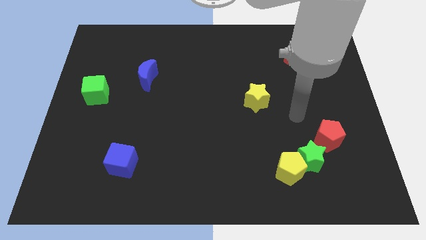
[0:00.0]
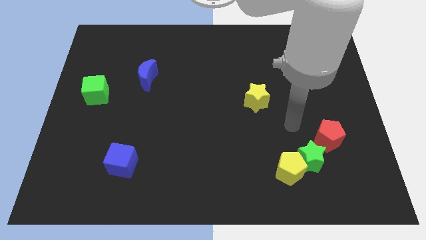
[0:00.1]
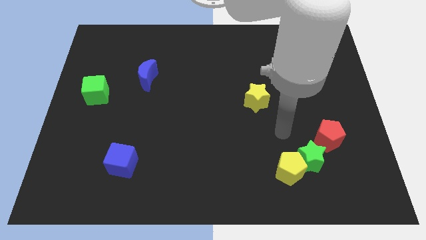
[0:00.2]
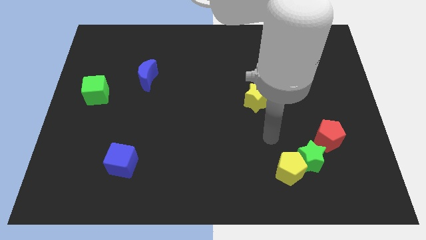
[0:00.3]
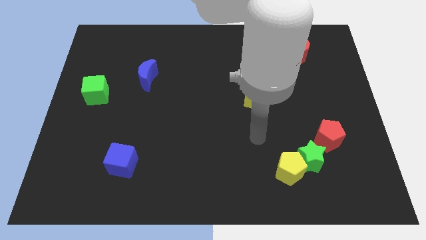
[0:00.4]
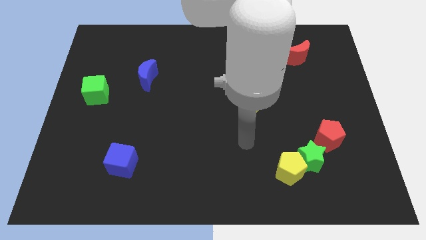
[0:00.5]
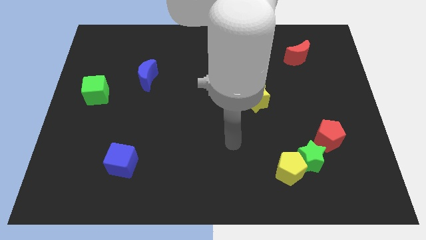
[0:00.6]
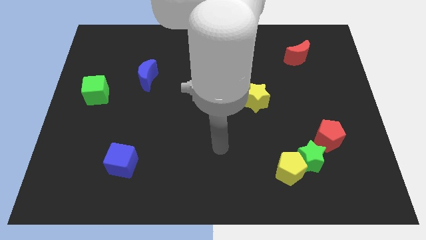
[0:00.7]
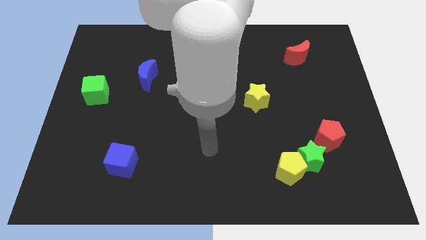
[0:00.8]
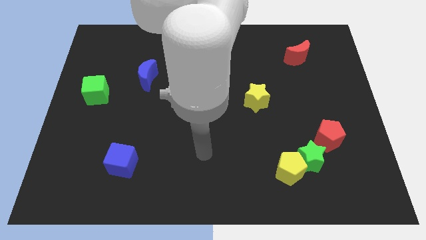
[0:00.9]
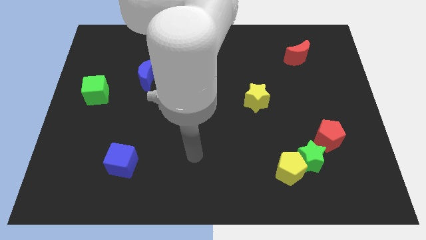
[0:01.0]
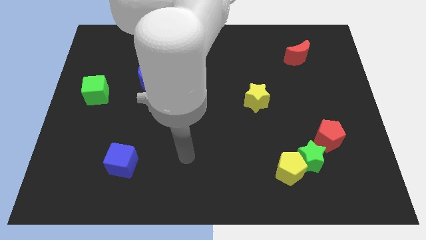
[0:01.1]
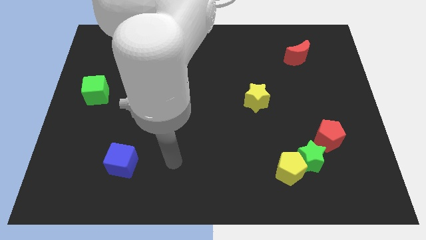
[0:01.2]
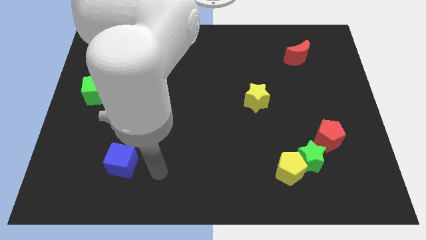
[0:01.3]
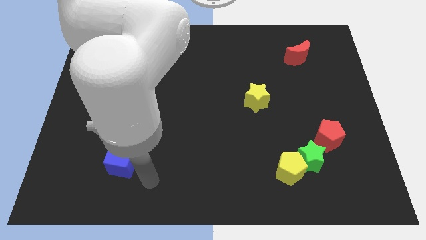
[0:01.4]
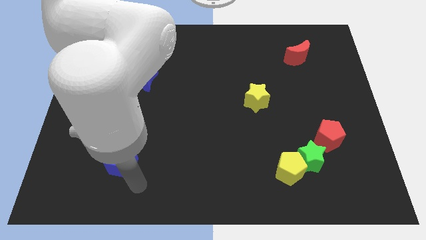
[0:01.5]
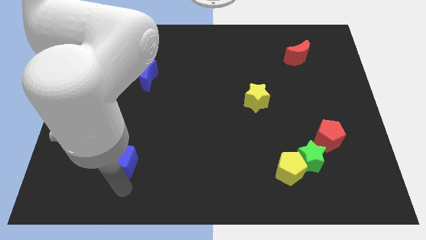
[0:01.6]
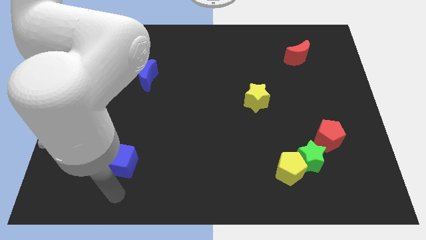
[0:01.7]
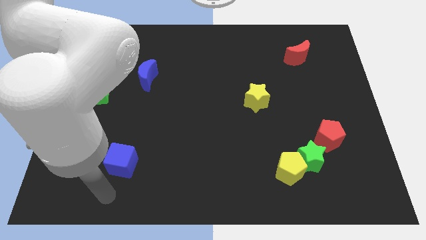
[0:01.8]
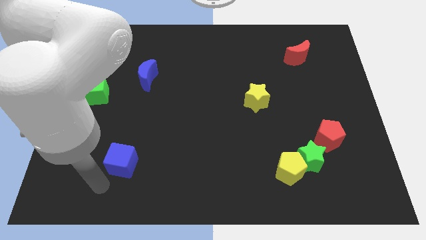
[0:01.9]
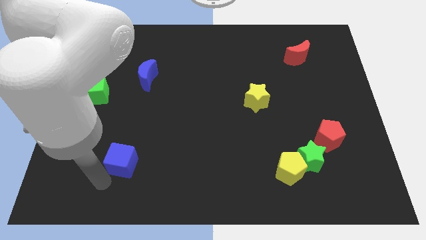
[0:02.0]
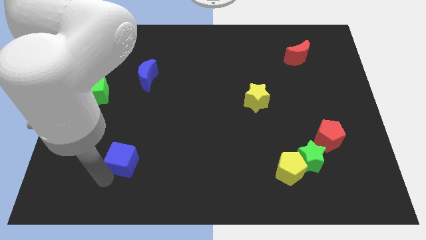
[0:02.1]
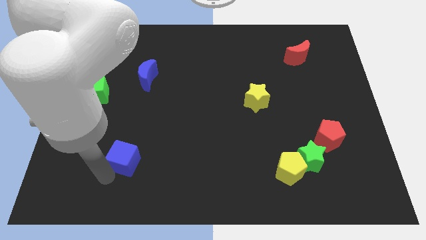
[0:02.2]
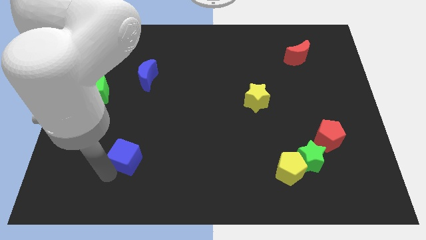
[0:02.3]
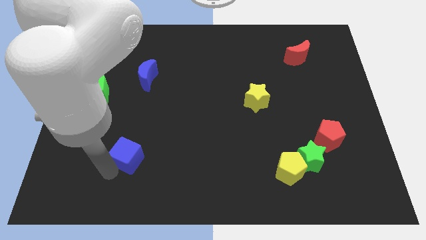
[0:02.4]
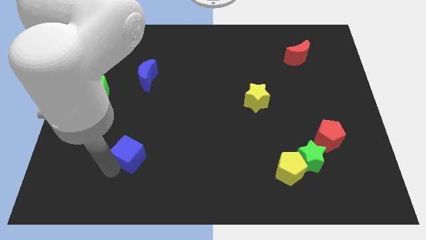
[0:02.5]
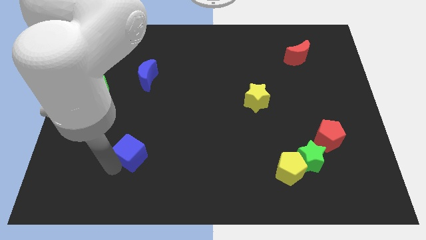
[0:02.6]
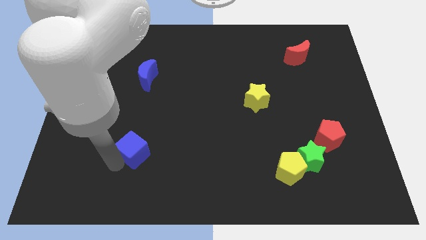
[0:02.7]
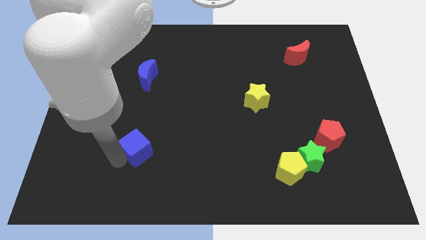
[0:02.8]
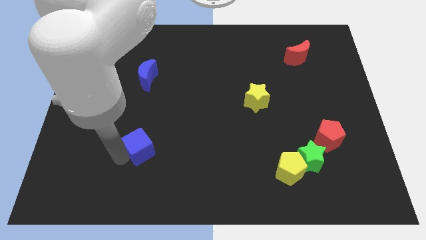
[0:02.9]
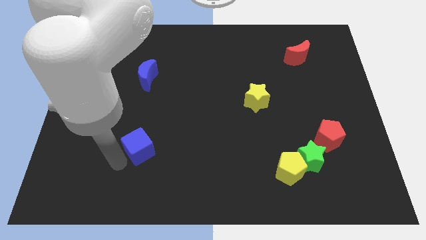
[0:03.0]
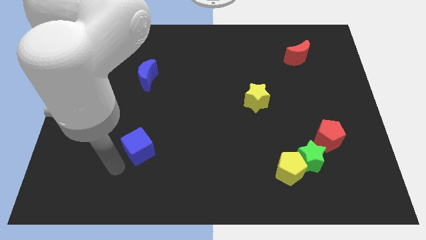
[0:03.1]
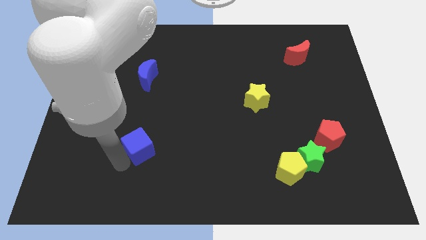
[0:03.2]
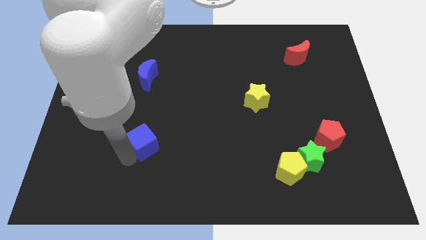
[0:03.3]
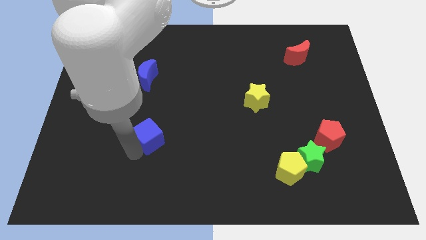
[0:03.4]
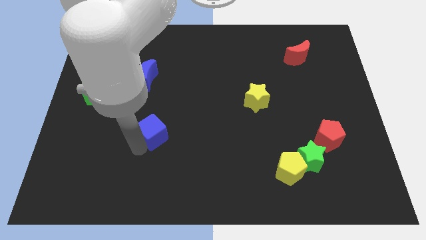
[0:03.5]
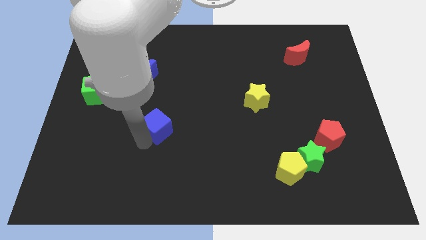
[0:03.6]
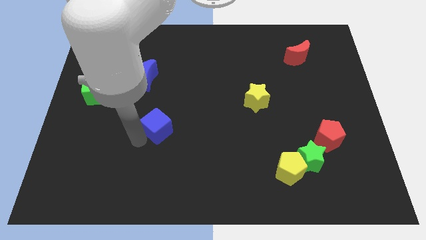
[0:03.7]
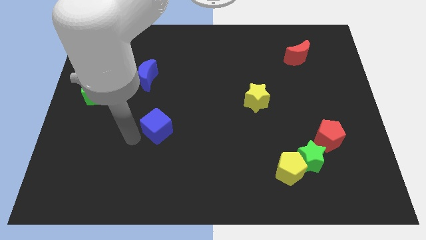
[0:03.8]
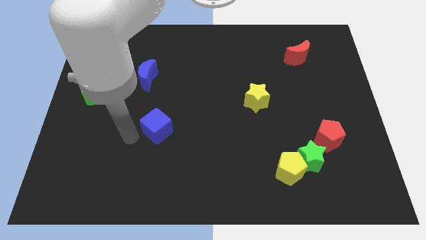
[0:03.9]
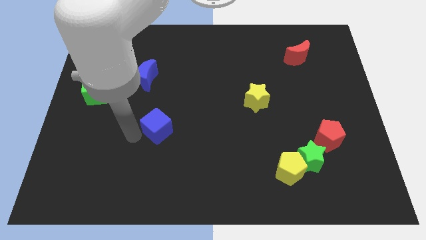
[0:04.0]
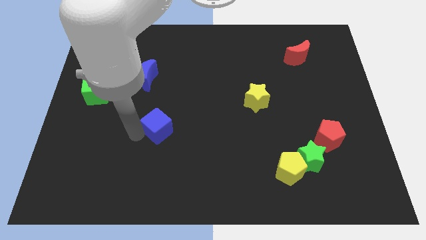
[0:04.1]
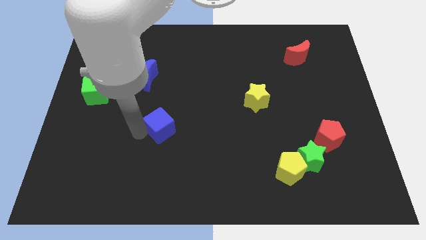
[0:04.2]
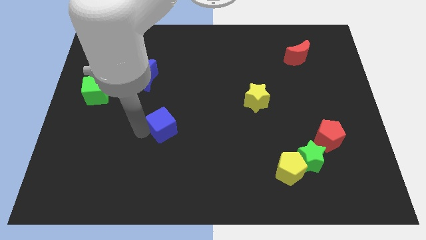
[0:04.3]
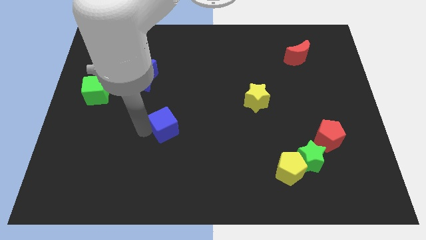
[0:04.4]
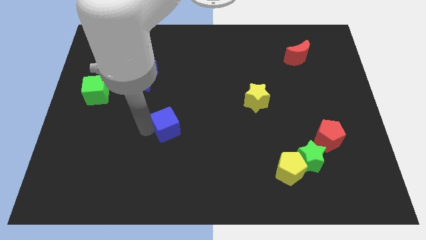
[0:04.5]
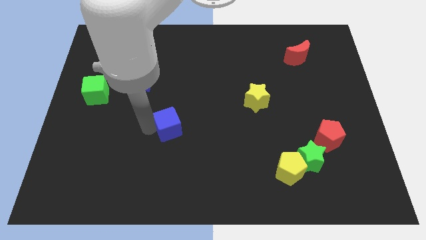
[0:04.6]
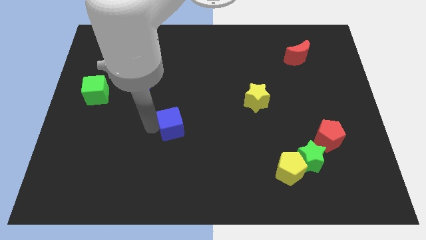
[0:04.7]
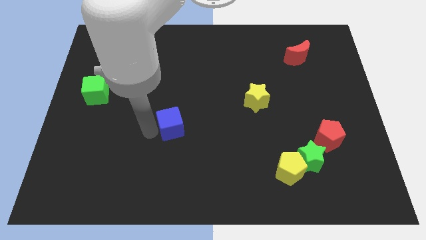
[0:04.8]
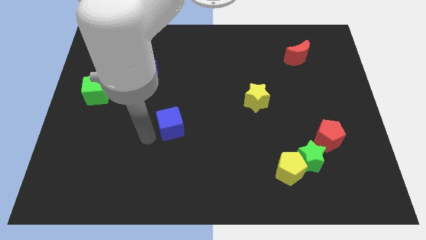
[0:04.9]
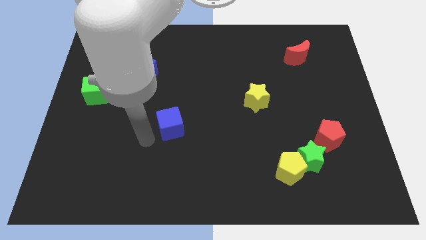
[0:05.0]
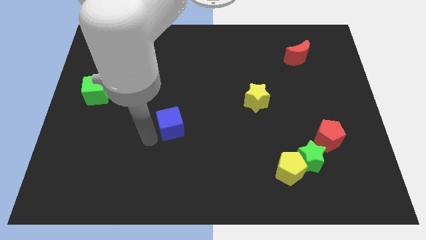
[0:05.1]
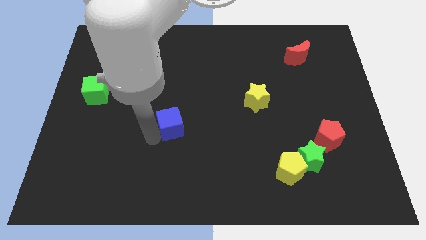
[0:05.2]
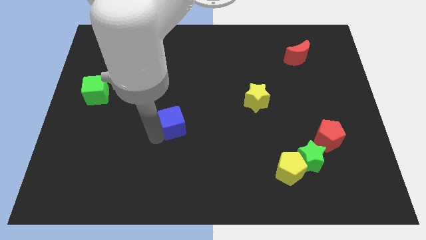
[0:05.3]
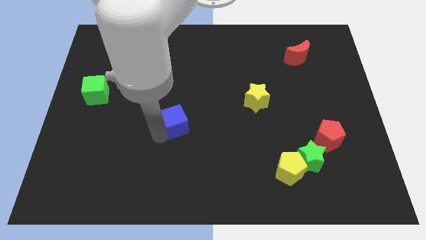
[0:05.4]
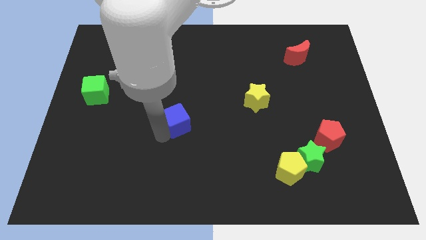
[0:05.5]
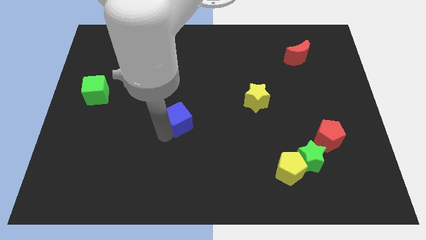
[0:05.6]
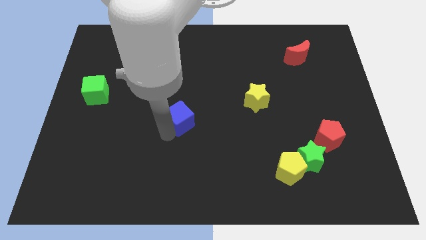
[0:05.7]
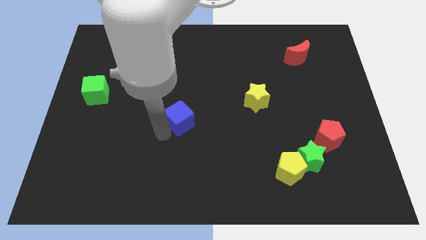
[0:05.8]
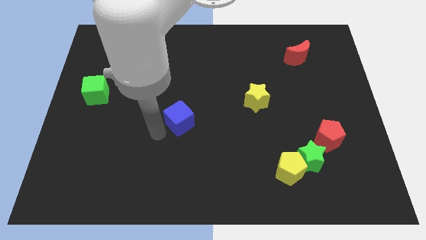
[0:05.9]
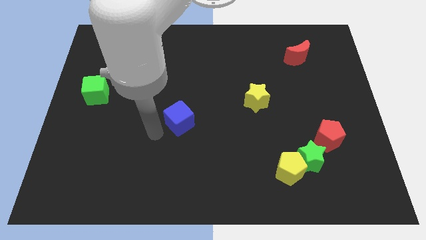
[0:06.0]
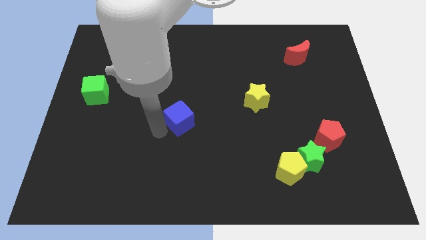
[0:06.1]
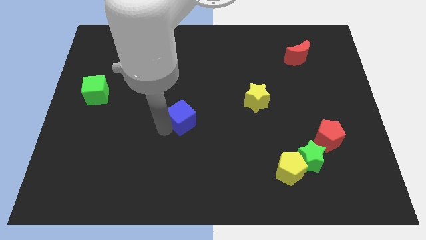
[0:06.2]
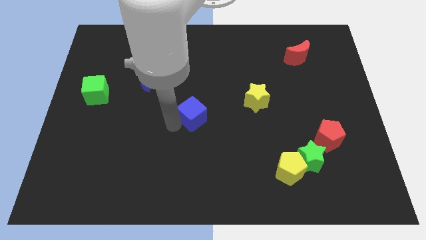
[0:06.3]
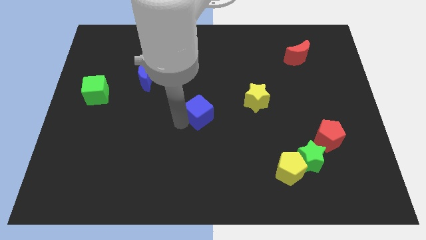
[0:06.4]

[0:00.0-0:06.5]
slide the blue cube upwards and right diagonally

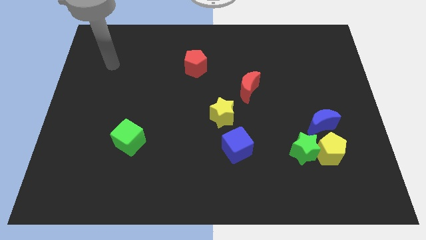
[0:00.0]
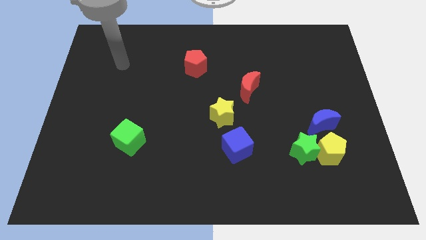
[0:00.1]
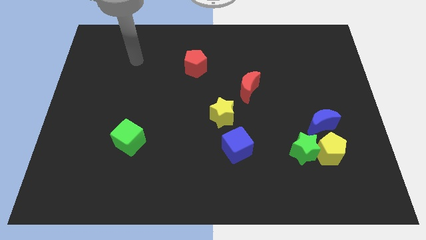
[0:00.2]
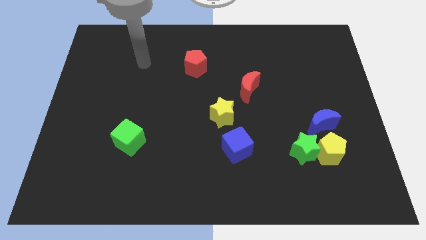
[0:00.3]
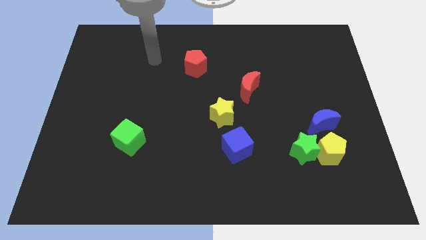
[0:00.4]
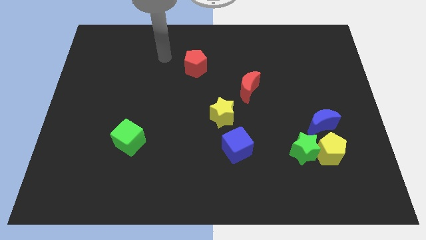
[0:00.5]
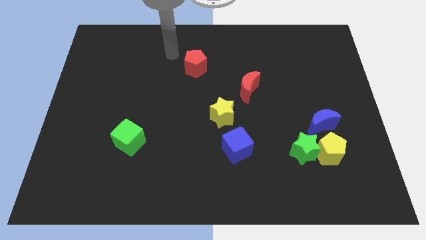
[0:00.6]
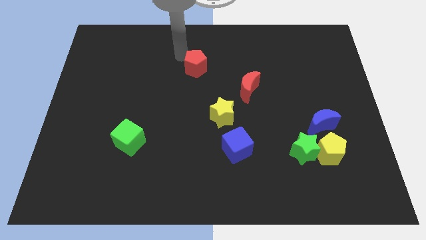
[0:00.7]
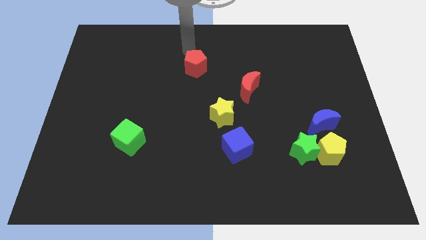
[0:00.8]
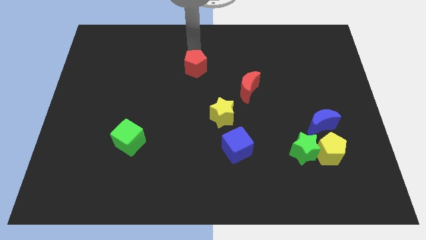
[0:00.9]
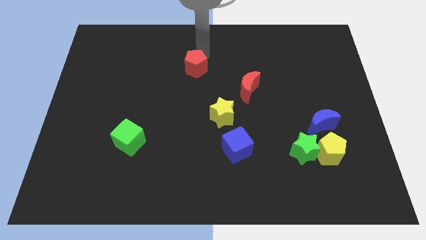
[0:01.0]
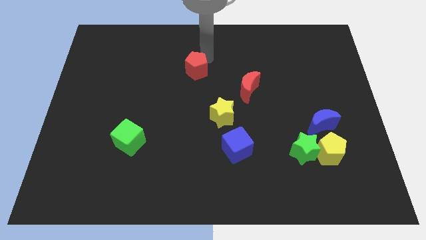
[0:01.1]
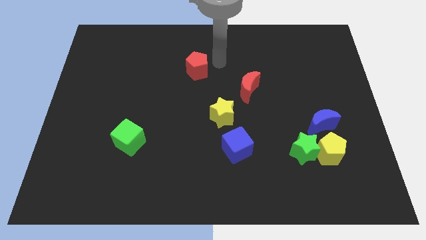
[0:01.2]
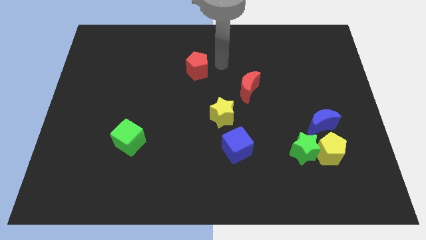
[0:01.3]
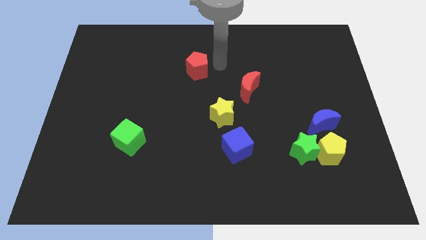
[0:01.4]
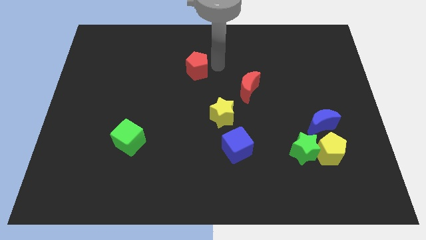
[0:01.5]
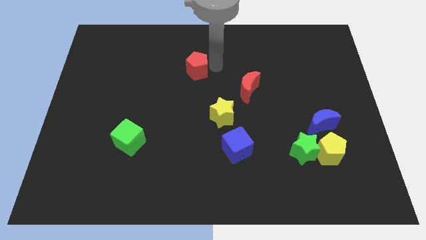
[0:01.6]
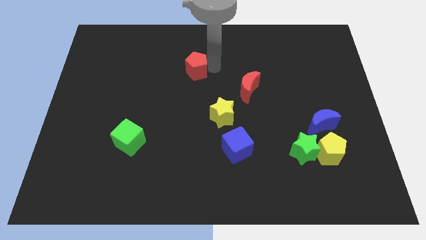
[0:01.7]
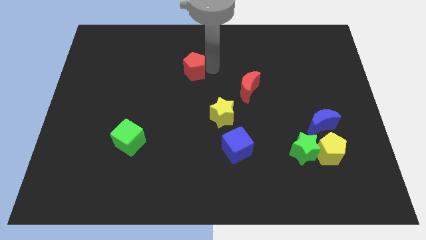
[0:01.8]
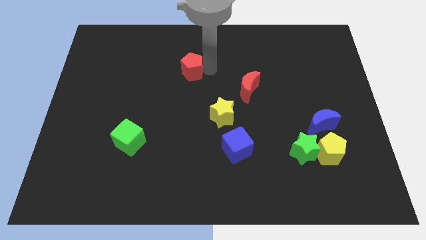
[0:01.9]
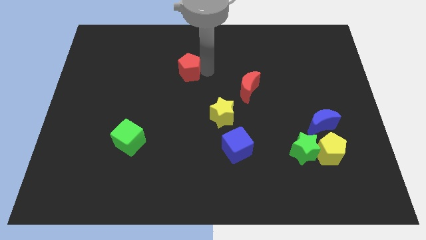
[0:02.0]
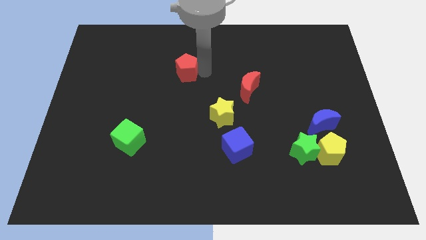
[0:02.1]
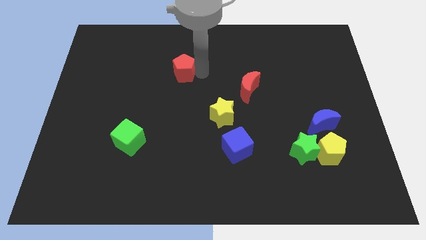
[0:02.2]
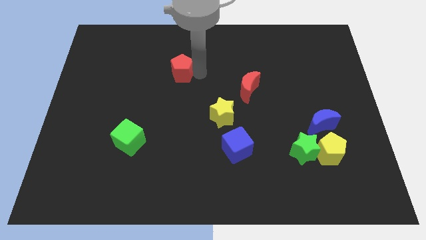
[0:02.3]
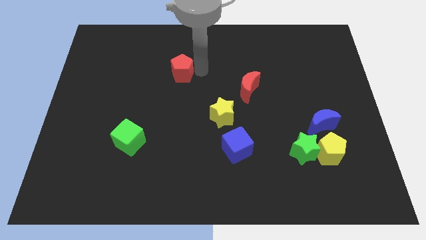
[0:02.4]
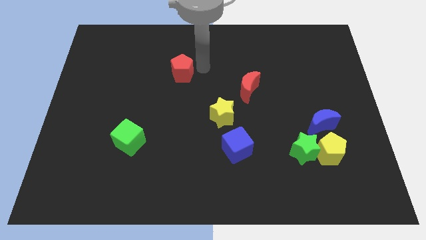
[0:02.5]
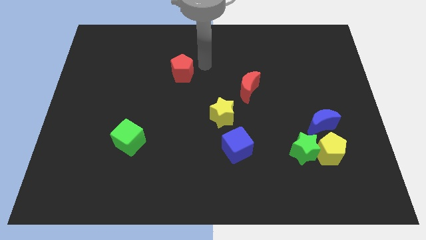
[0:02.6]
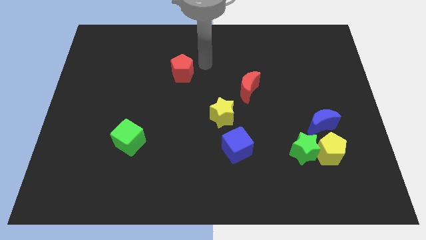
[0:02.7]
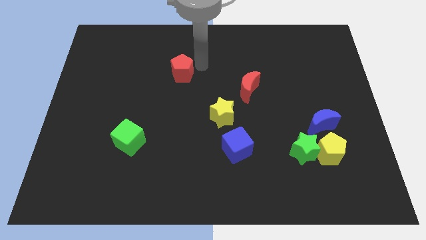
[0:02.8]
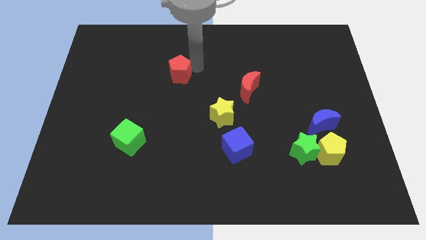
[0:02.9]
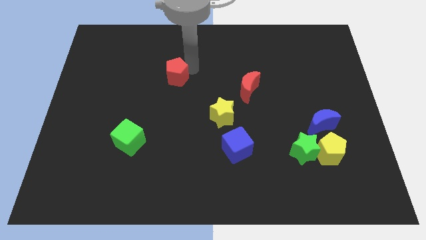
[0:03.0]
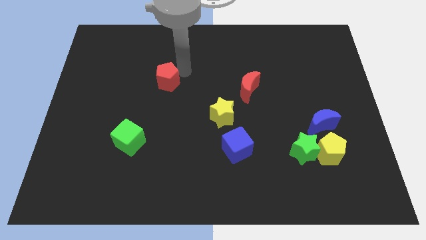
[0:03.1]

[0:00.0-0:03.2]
push the red pentagon downwards and then left slightly
